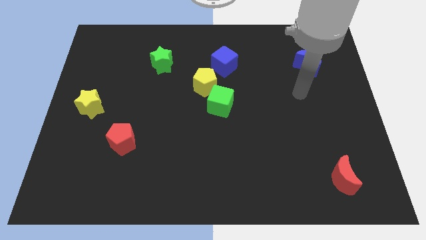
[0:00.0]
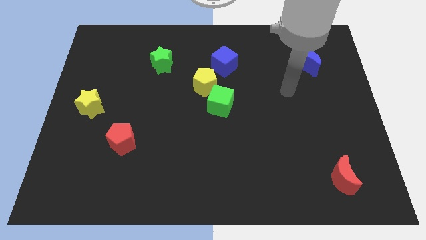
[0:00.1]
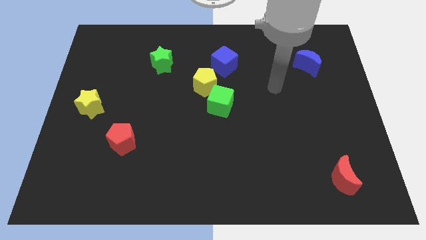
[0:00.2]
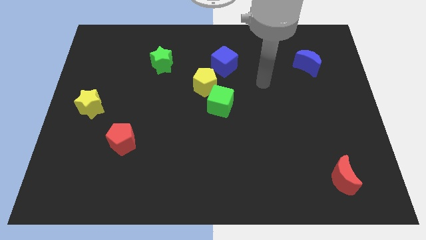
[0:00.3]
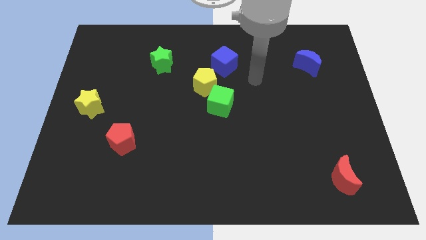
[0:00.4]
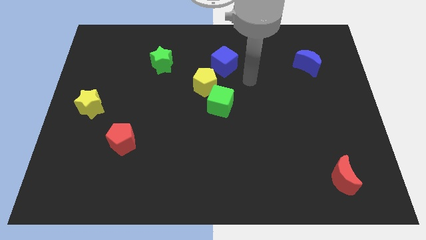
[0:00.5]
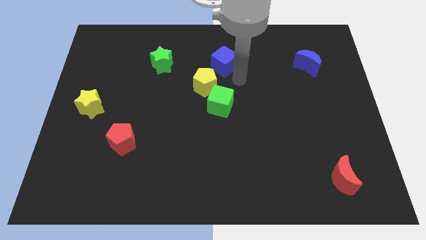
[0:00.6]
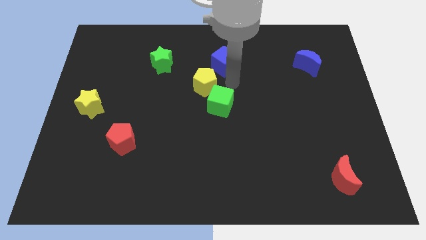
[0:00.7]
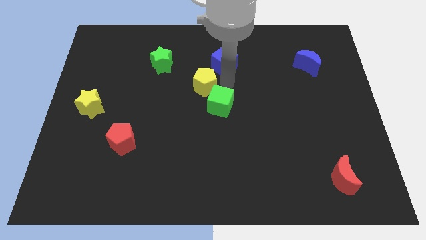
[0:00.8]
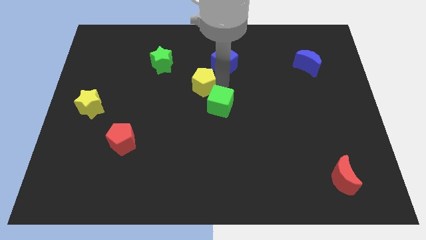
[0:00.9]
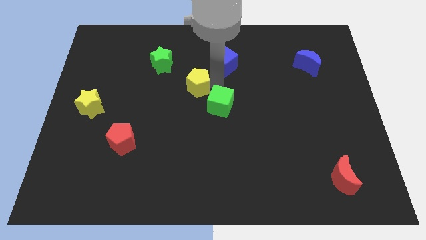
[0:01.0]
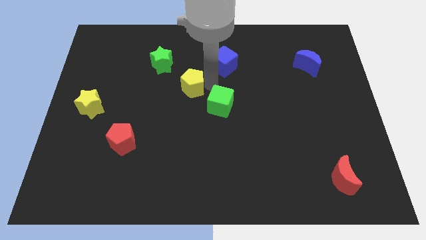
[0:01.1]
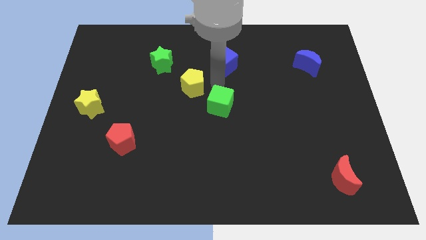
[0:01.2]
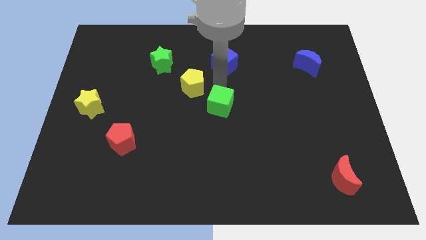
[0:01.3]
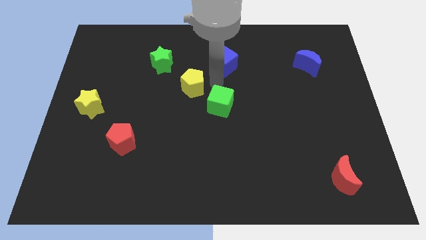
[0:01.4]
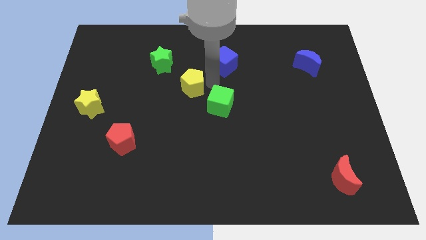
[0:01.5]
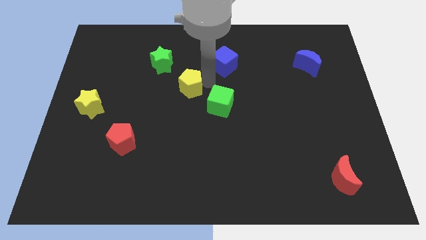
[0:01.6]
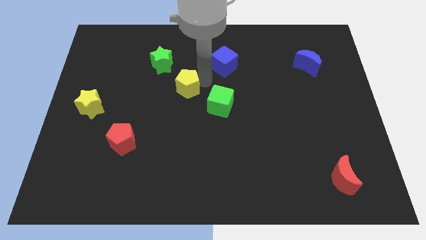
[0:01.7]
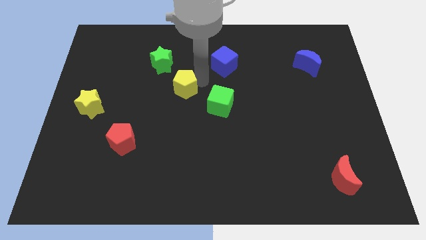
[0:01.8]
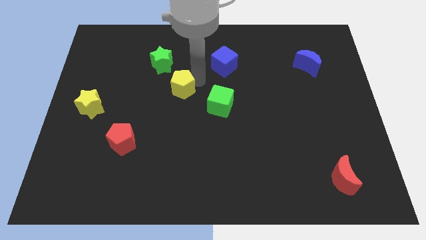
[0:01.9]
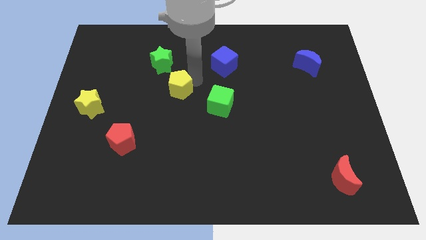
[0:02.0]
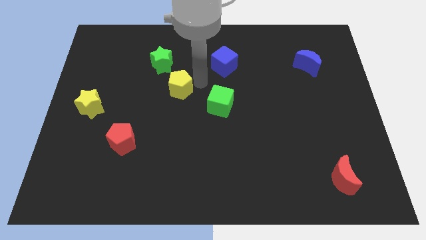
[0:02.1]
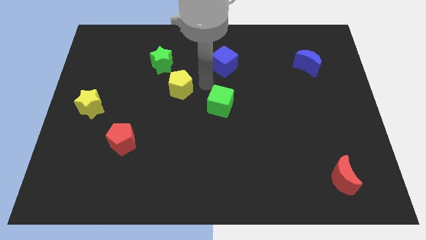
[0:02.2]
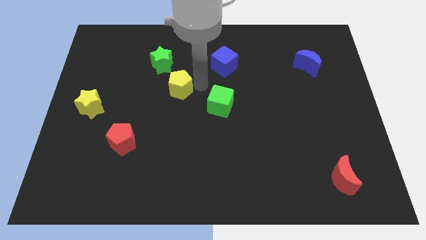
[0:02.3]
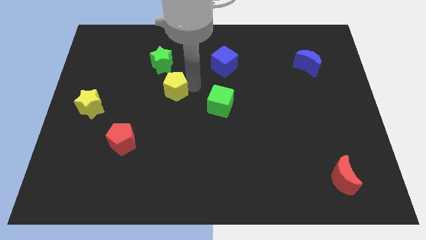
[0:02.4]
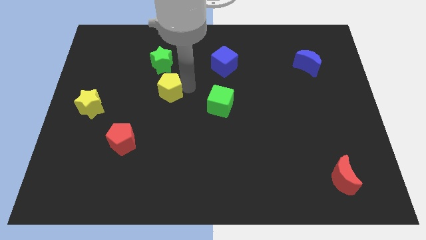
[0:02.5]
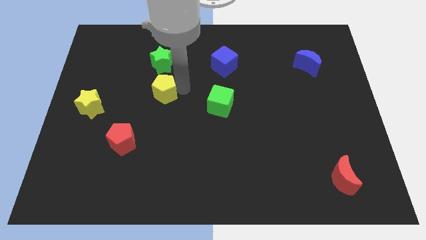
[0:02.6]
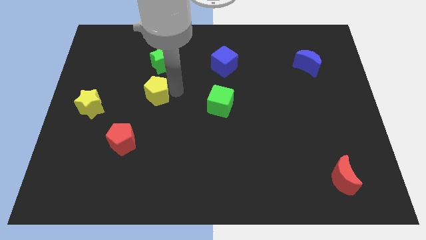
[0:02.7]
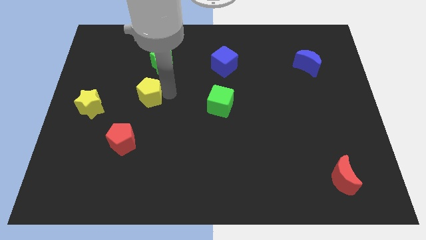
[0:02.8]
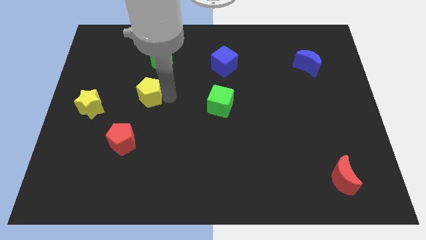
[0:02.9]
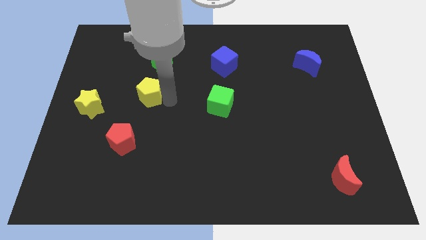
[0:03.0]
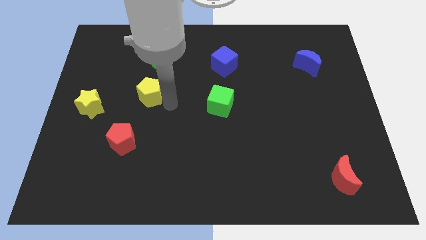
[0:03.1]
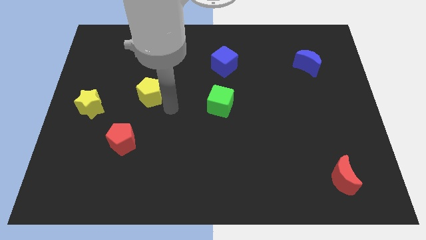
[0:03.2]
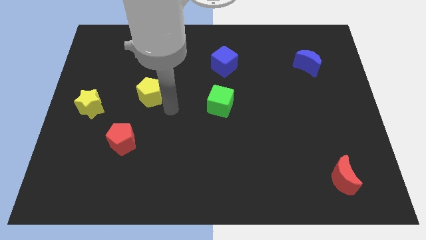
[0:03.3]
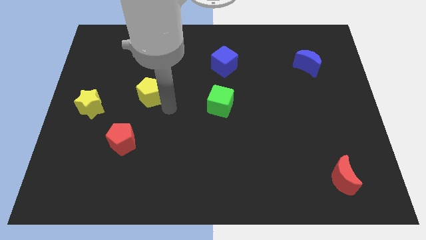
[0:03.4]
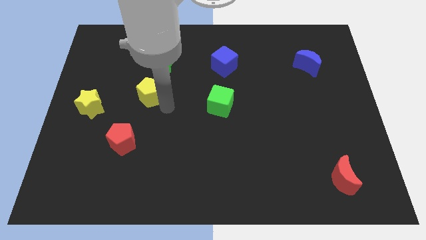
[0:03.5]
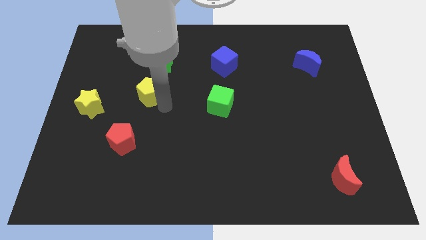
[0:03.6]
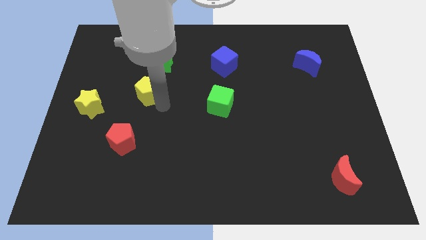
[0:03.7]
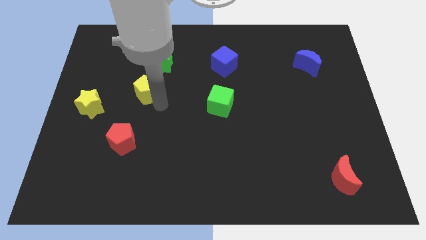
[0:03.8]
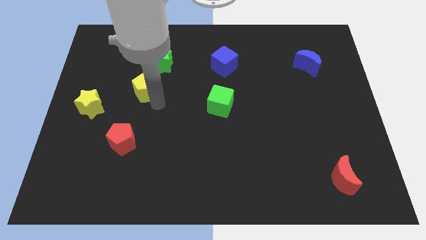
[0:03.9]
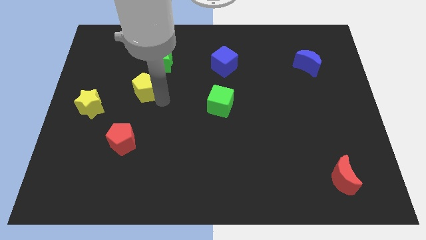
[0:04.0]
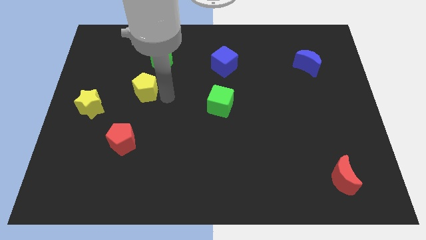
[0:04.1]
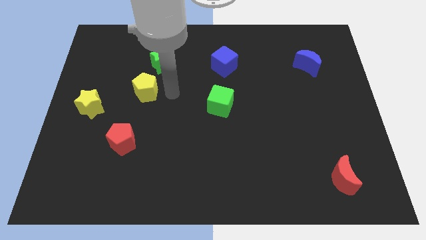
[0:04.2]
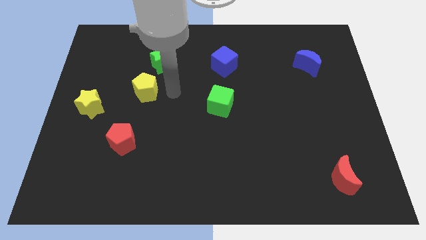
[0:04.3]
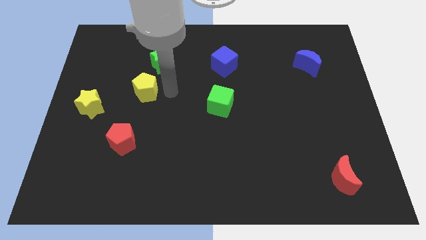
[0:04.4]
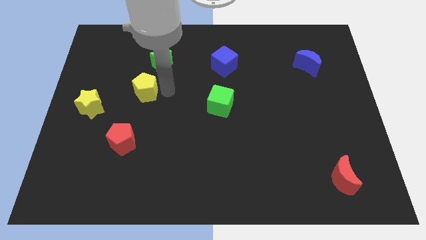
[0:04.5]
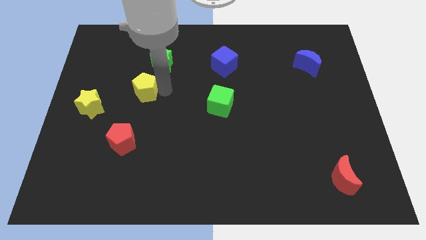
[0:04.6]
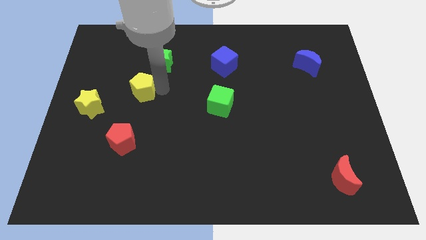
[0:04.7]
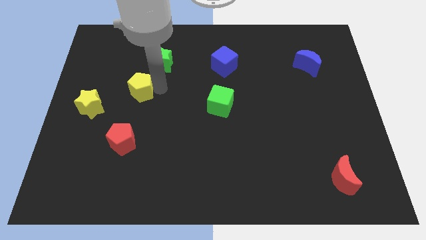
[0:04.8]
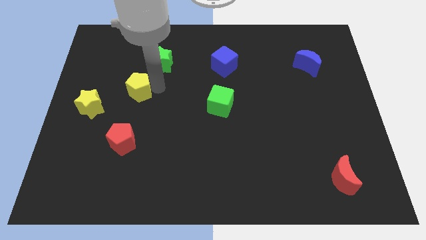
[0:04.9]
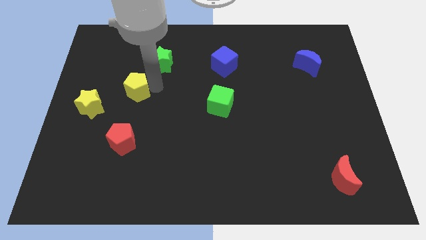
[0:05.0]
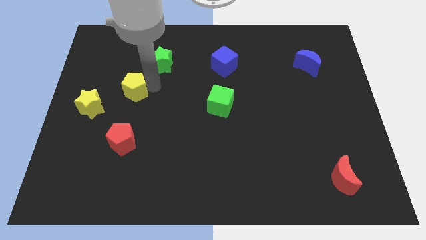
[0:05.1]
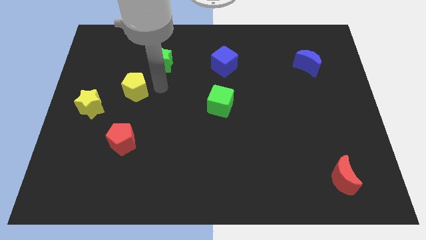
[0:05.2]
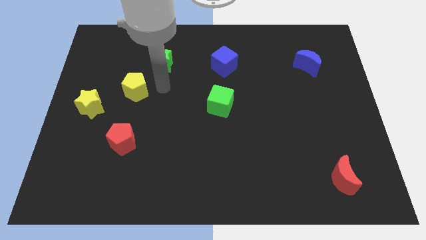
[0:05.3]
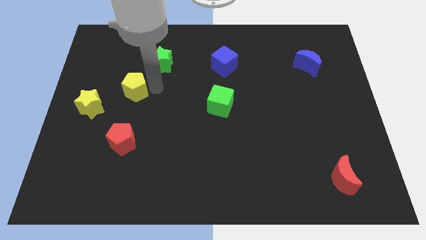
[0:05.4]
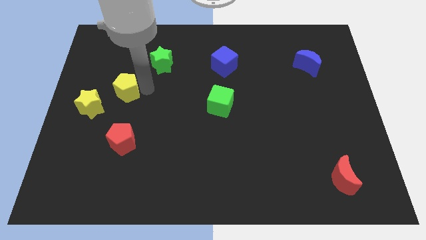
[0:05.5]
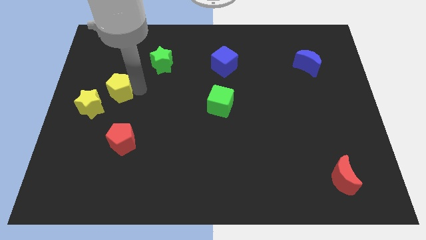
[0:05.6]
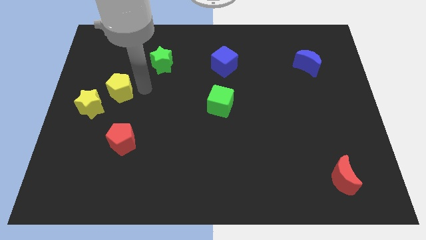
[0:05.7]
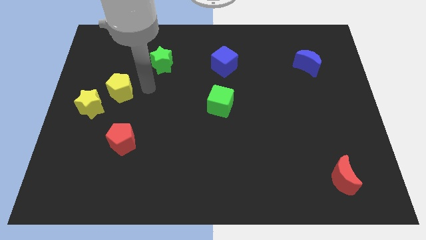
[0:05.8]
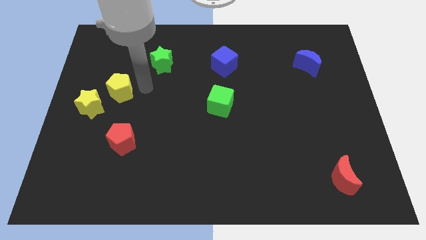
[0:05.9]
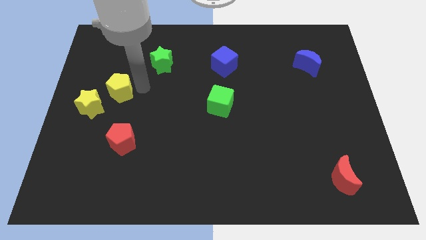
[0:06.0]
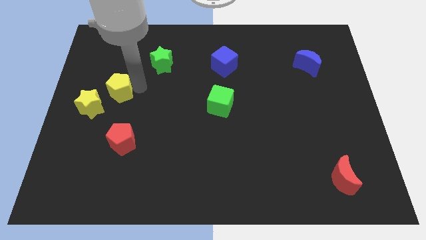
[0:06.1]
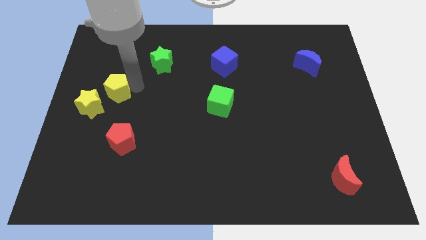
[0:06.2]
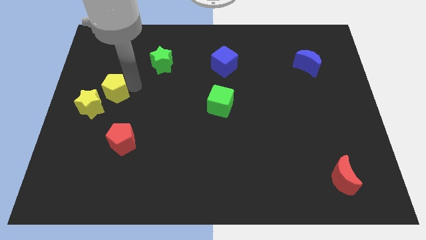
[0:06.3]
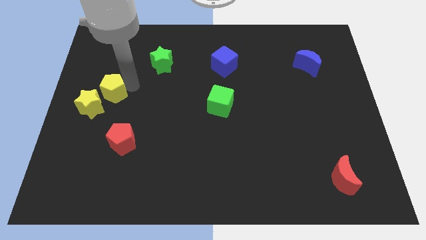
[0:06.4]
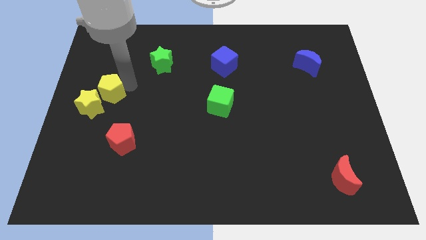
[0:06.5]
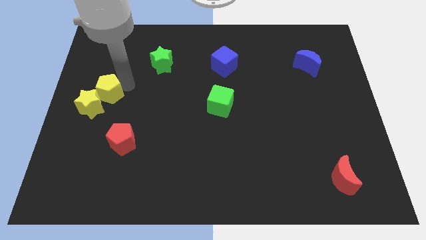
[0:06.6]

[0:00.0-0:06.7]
slide the yellow pentagon to the left side

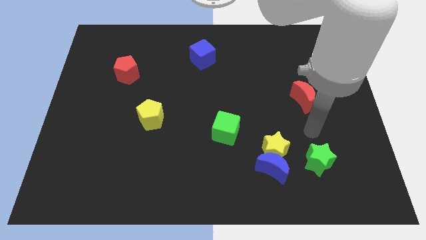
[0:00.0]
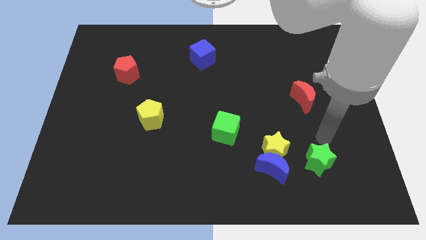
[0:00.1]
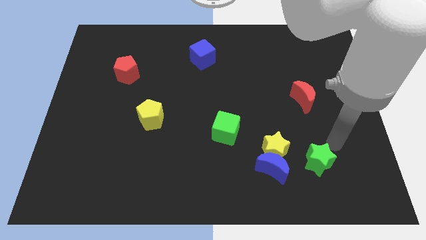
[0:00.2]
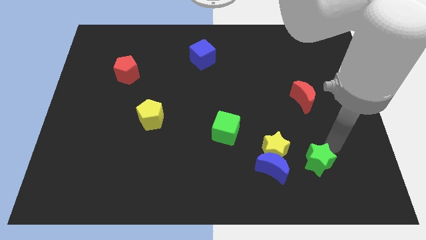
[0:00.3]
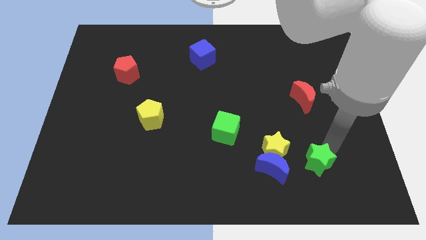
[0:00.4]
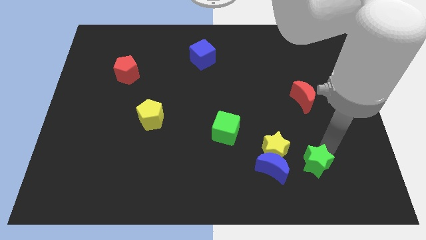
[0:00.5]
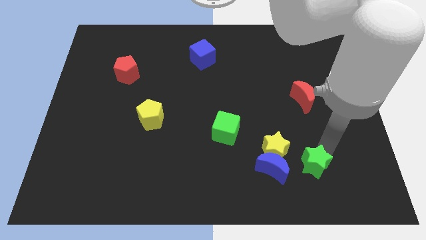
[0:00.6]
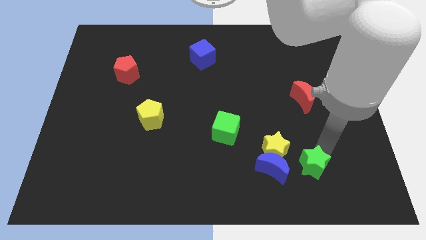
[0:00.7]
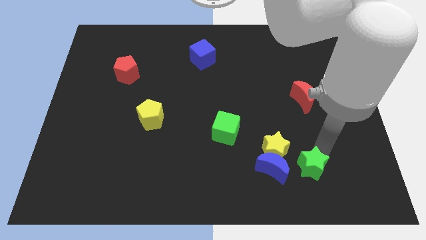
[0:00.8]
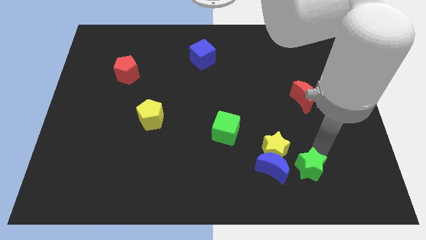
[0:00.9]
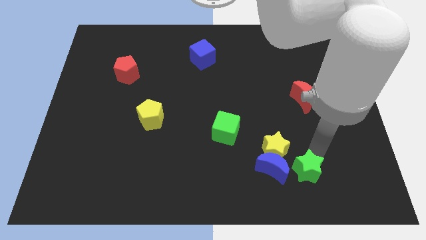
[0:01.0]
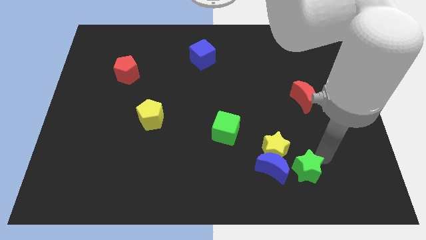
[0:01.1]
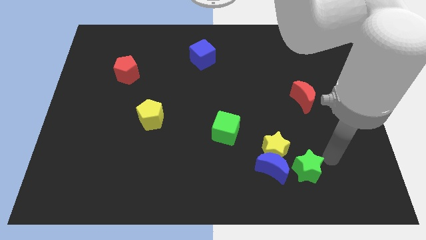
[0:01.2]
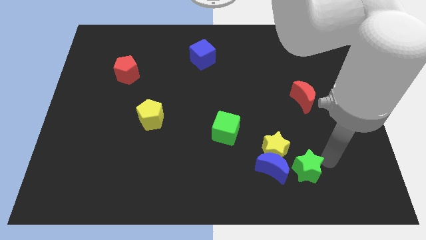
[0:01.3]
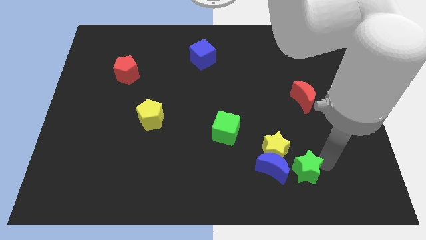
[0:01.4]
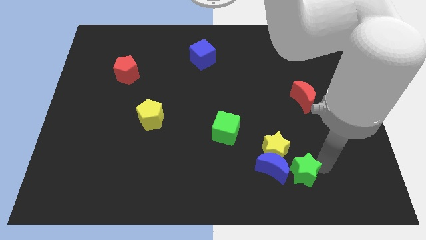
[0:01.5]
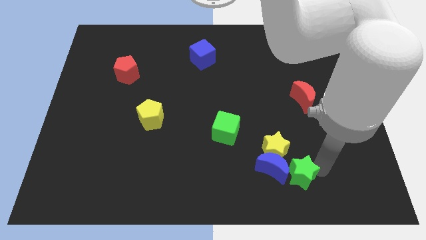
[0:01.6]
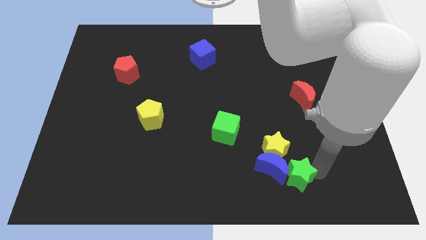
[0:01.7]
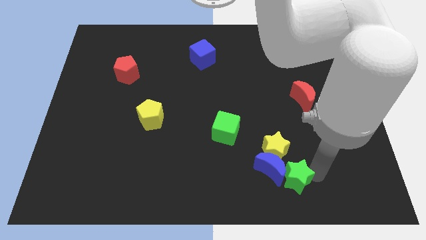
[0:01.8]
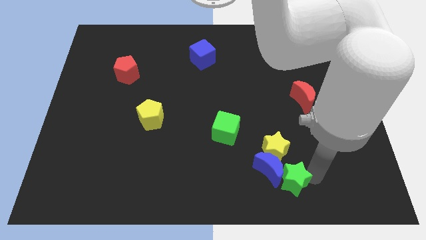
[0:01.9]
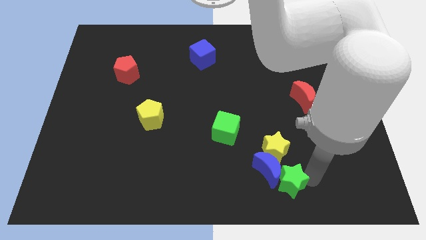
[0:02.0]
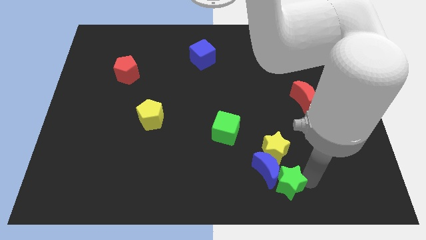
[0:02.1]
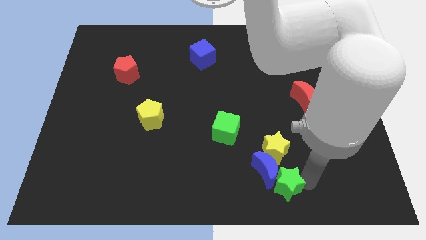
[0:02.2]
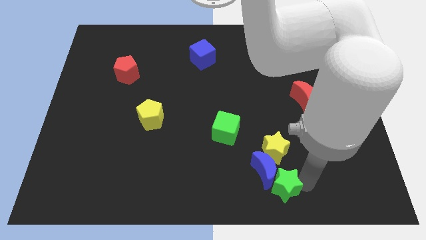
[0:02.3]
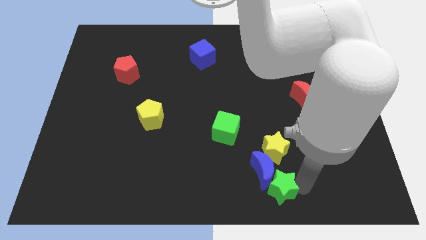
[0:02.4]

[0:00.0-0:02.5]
move the green star to the bottom
